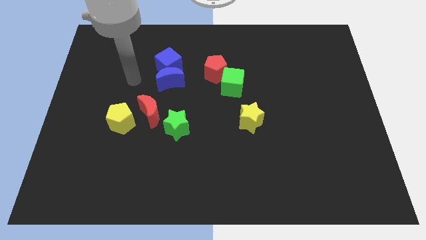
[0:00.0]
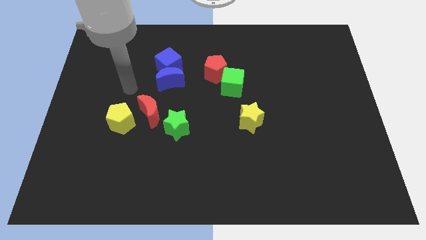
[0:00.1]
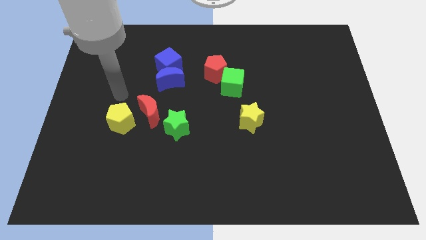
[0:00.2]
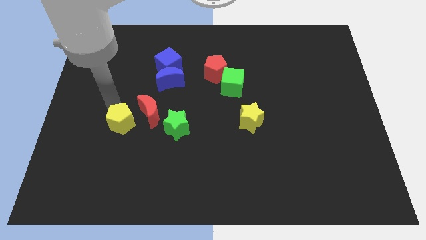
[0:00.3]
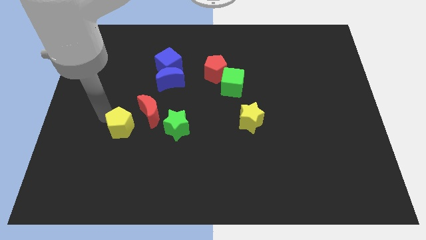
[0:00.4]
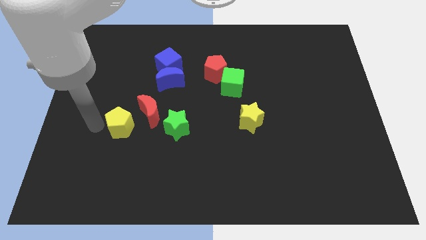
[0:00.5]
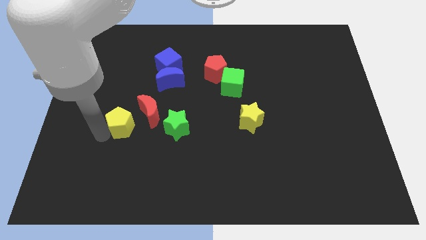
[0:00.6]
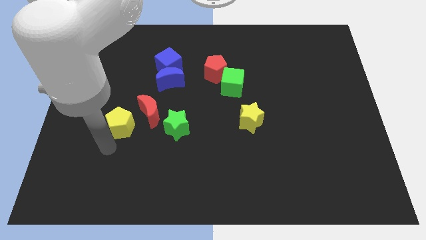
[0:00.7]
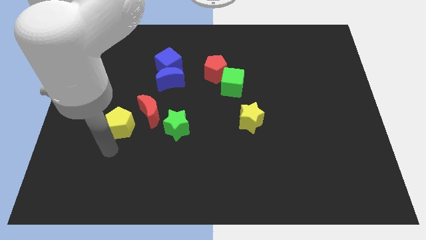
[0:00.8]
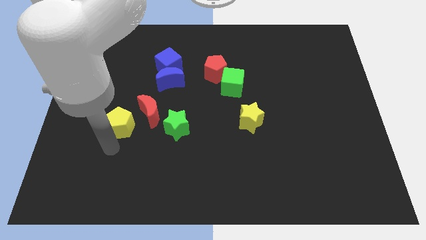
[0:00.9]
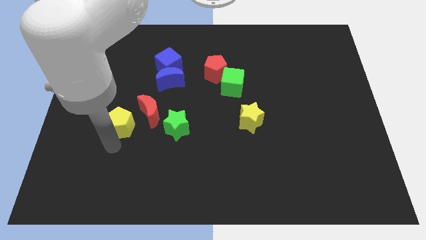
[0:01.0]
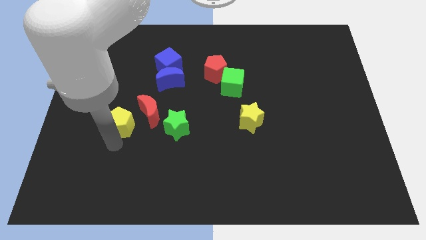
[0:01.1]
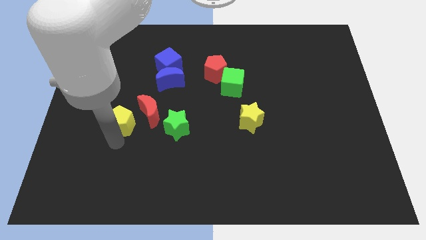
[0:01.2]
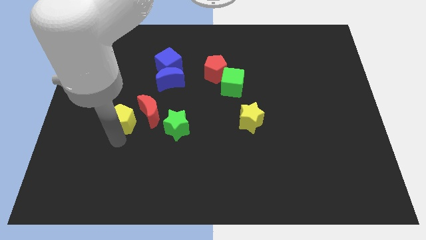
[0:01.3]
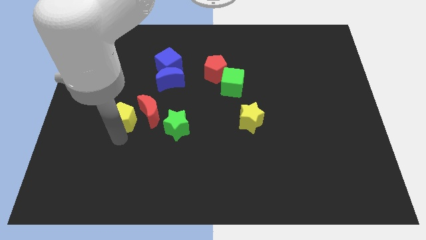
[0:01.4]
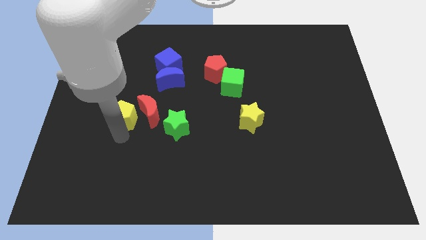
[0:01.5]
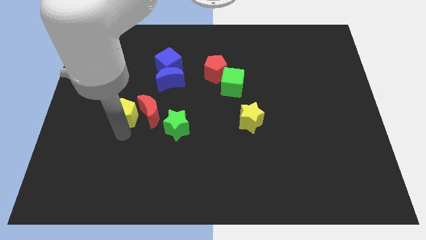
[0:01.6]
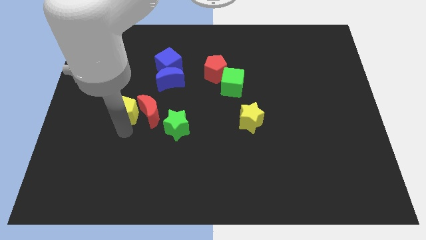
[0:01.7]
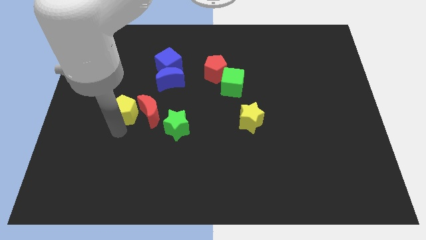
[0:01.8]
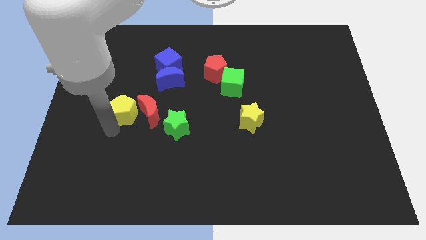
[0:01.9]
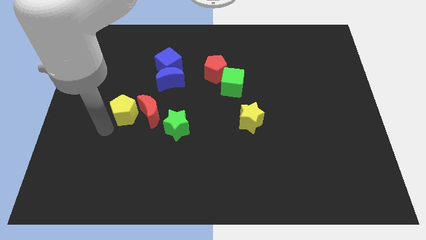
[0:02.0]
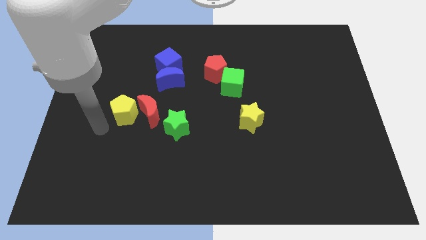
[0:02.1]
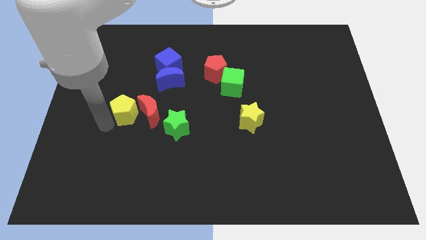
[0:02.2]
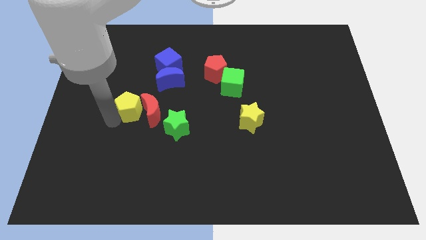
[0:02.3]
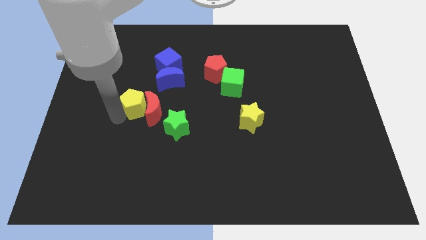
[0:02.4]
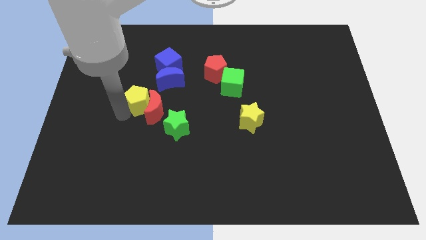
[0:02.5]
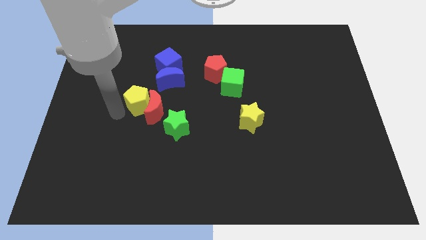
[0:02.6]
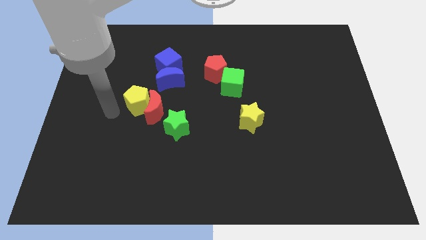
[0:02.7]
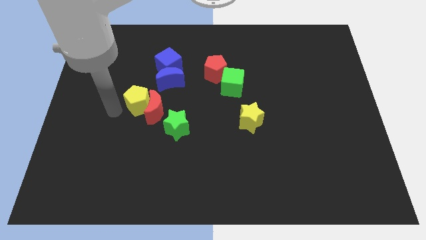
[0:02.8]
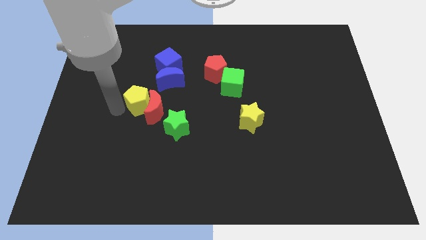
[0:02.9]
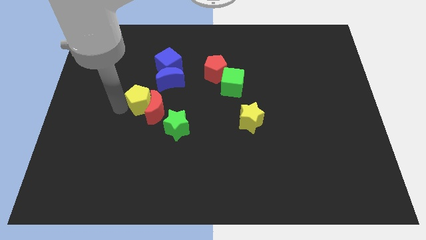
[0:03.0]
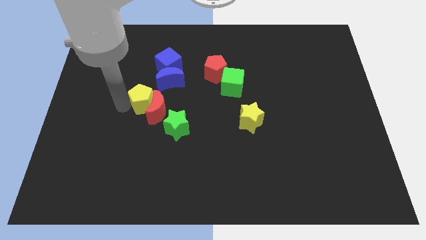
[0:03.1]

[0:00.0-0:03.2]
move the yellow pentagon diagonally up and to the right a little bit

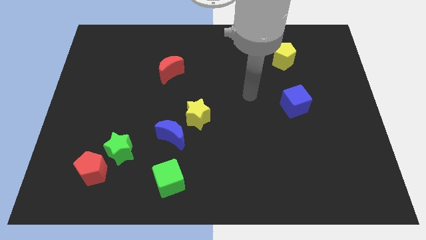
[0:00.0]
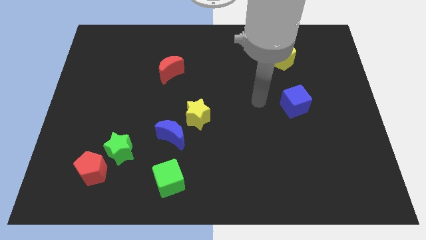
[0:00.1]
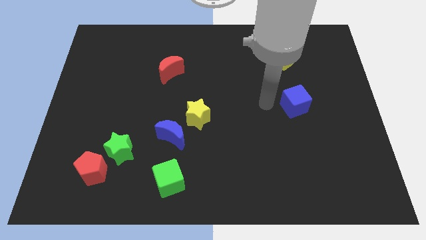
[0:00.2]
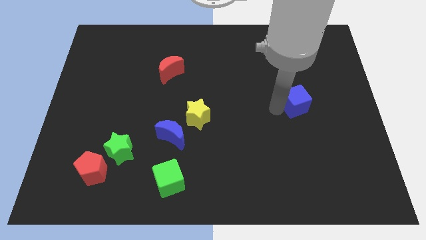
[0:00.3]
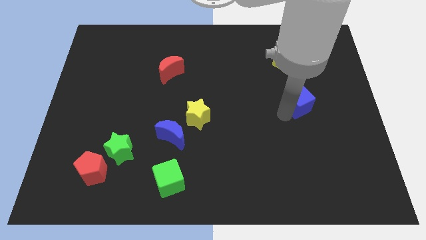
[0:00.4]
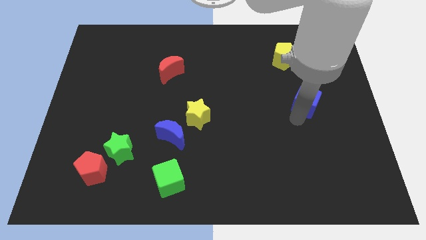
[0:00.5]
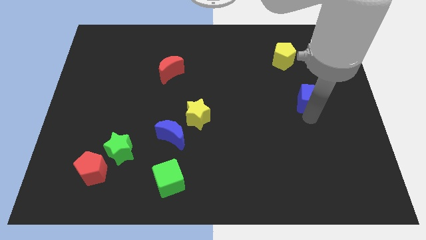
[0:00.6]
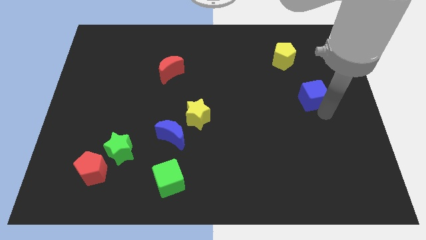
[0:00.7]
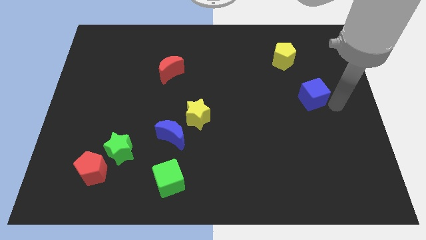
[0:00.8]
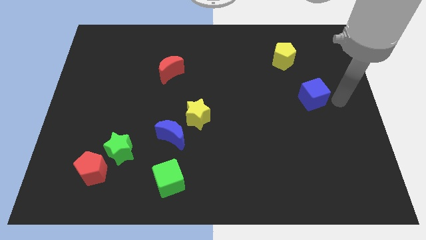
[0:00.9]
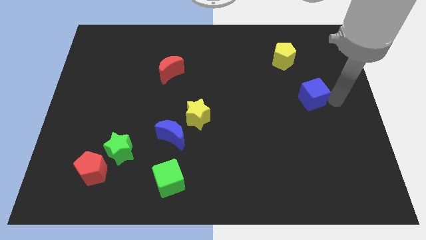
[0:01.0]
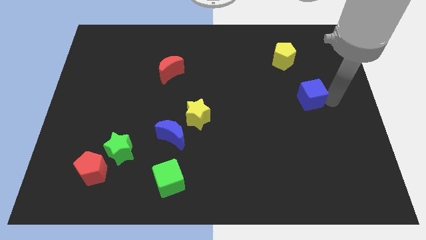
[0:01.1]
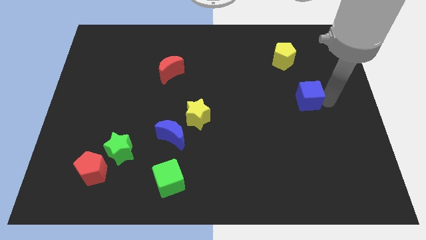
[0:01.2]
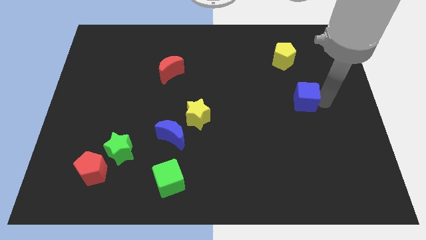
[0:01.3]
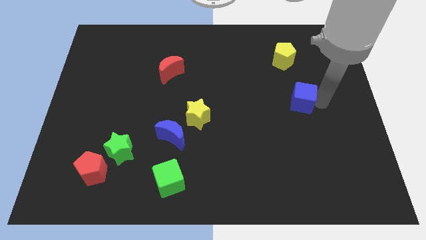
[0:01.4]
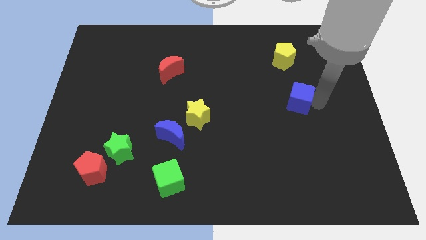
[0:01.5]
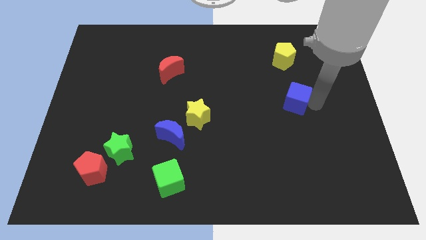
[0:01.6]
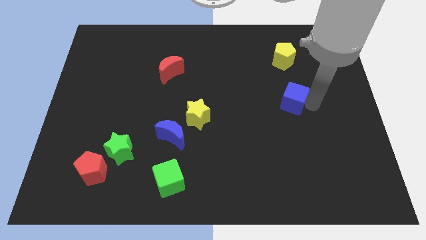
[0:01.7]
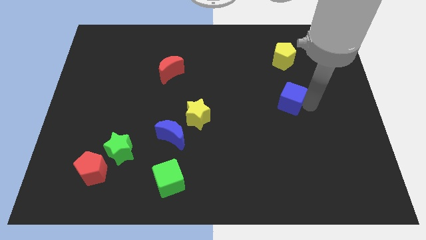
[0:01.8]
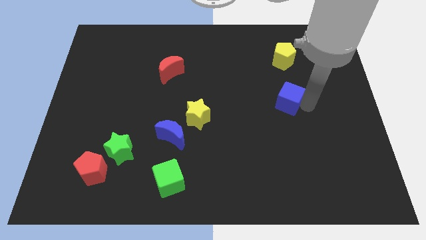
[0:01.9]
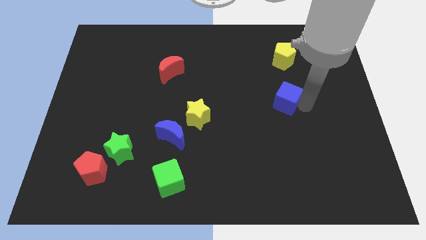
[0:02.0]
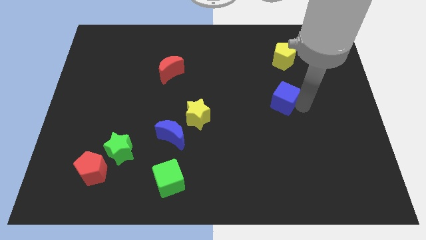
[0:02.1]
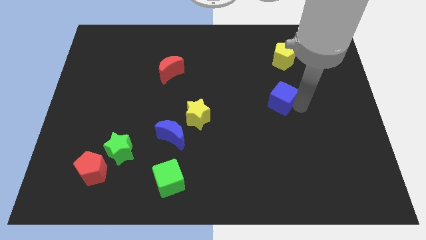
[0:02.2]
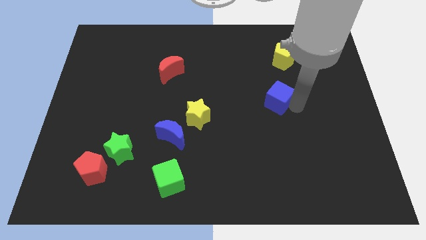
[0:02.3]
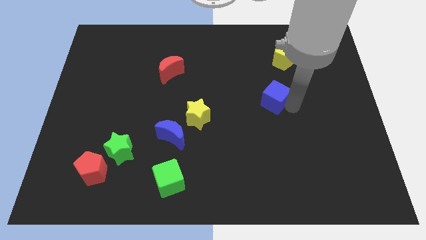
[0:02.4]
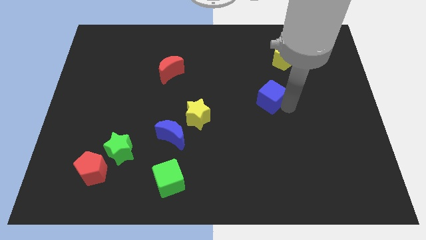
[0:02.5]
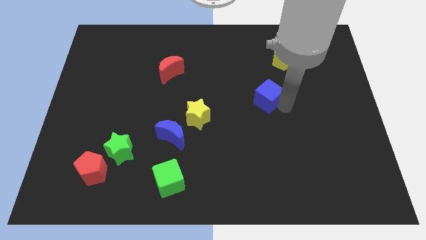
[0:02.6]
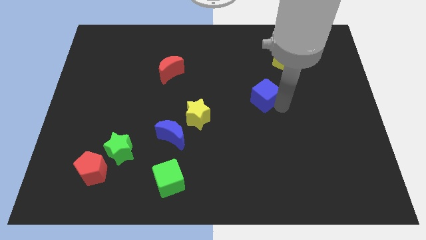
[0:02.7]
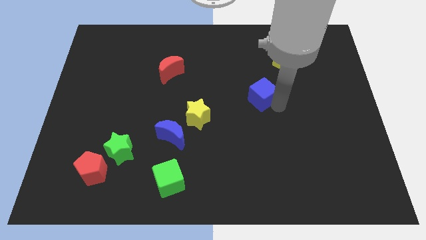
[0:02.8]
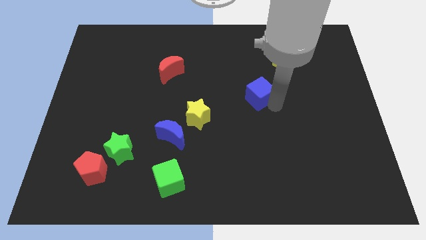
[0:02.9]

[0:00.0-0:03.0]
slide the blue cube slightly up and then left

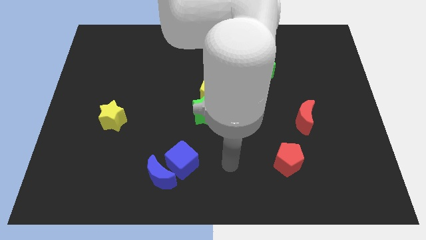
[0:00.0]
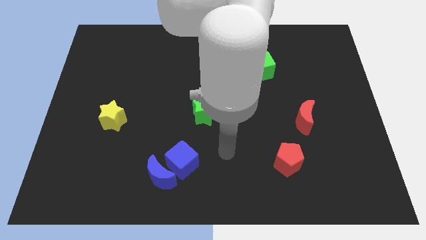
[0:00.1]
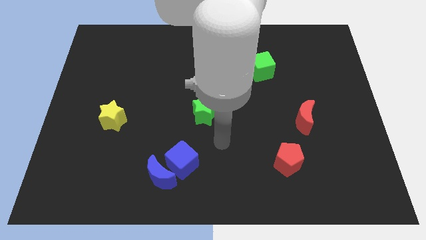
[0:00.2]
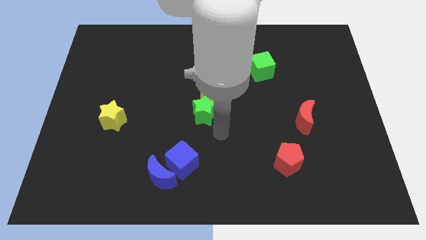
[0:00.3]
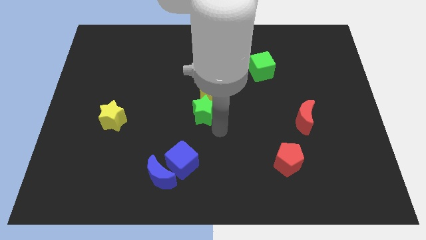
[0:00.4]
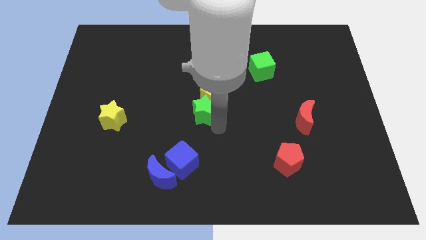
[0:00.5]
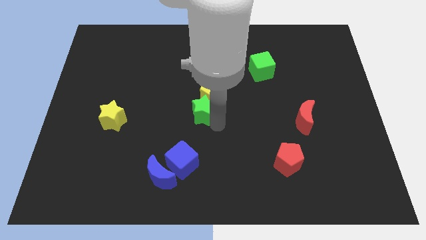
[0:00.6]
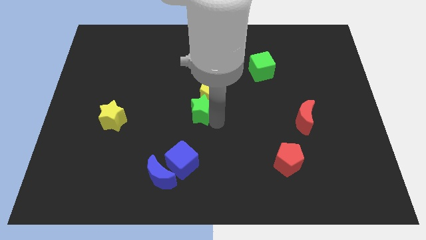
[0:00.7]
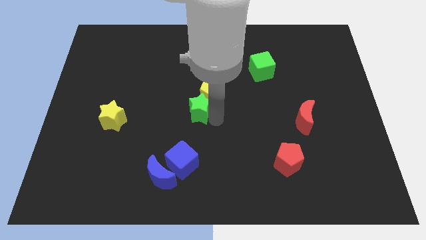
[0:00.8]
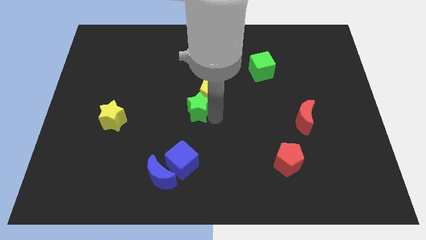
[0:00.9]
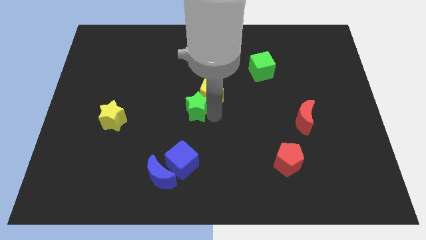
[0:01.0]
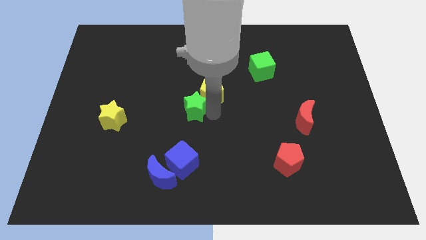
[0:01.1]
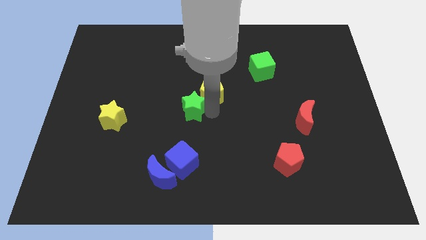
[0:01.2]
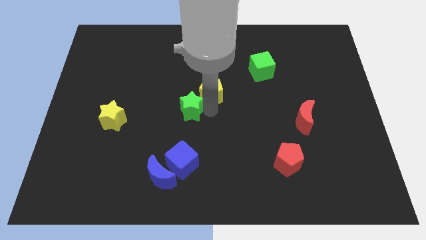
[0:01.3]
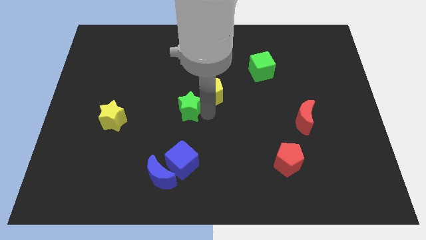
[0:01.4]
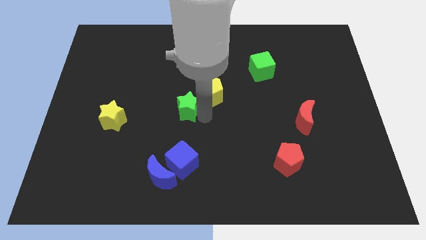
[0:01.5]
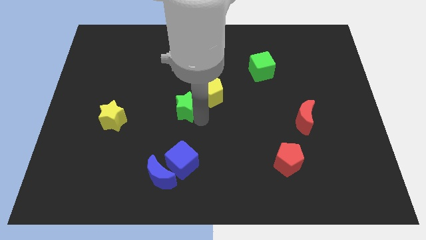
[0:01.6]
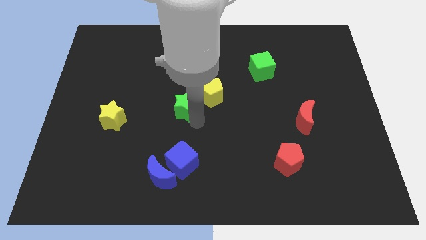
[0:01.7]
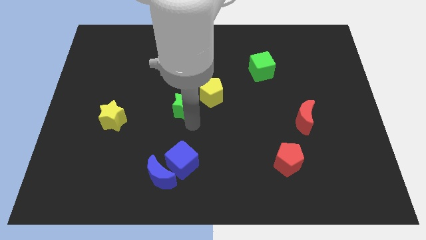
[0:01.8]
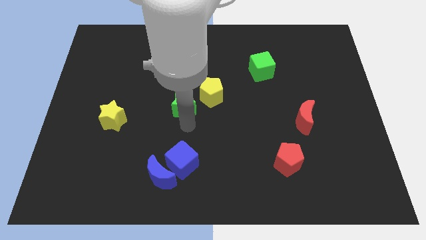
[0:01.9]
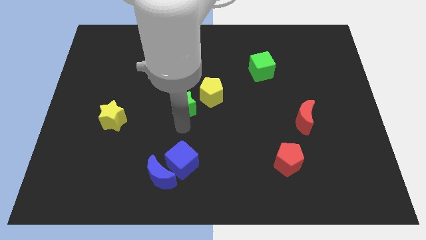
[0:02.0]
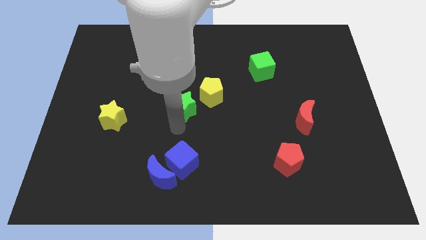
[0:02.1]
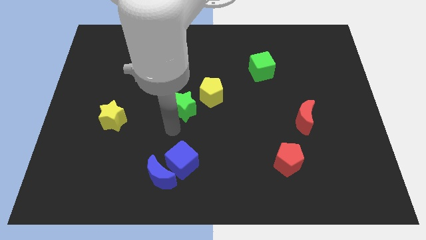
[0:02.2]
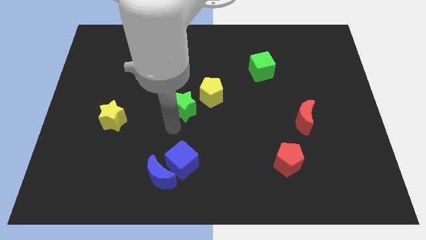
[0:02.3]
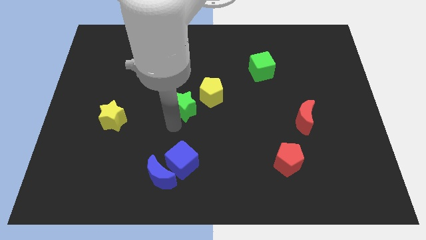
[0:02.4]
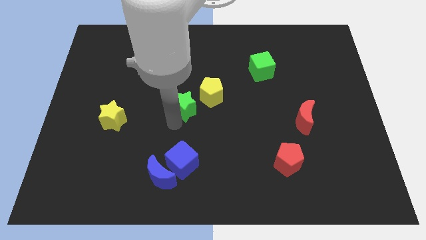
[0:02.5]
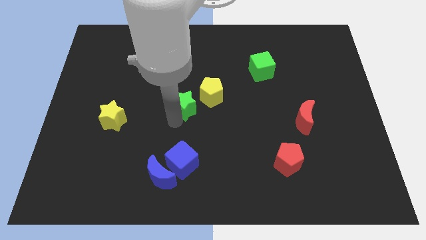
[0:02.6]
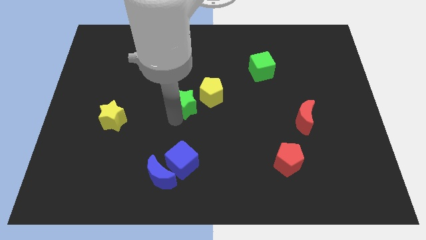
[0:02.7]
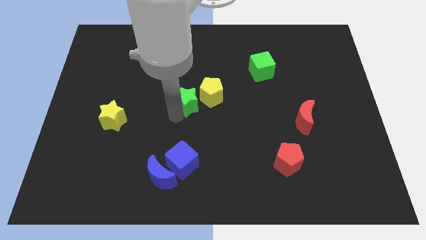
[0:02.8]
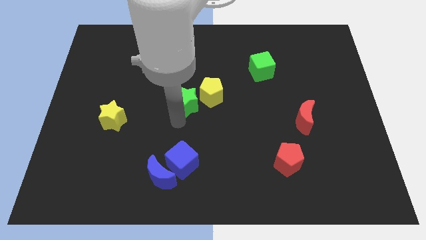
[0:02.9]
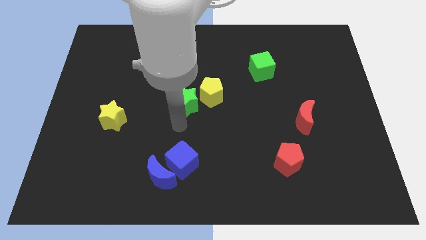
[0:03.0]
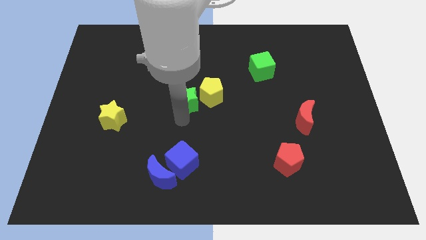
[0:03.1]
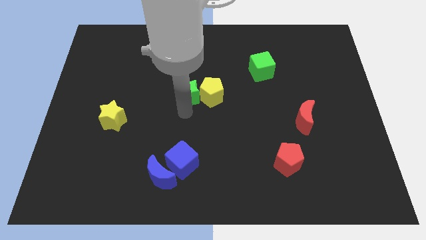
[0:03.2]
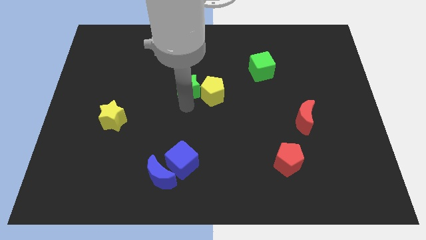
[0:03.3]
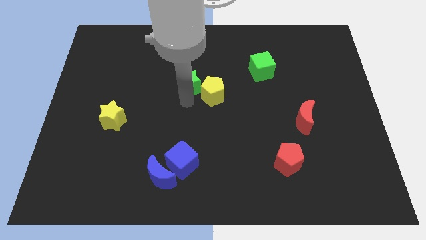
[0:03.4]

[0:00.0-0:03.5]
slide the green star upwards a little
